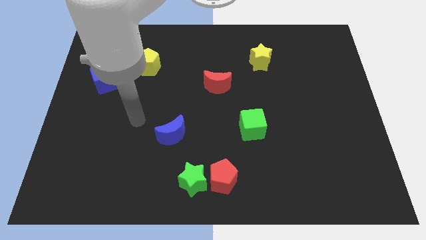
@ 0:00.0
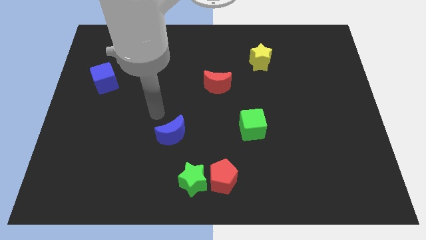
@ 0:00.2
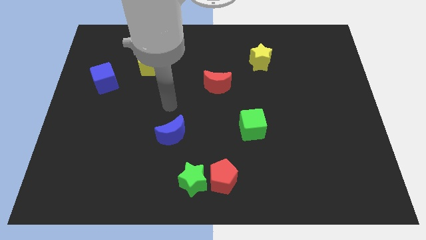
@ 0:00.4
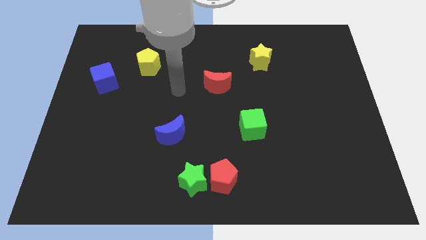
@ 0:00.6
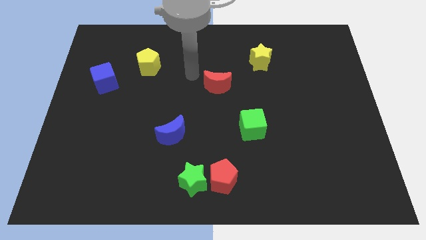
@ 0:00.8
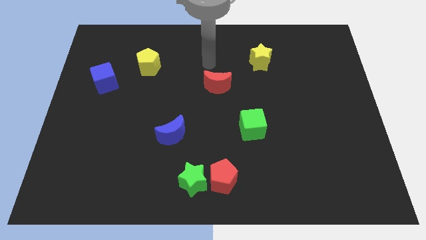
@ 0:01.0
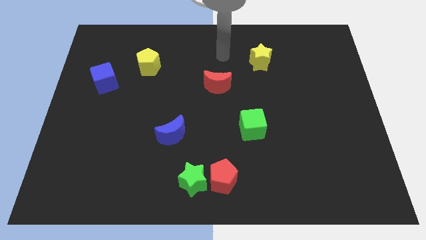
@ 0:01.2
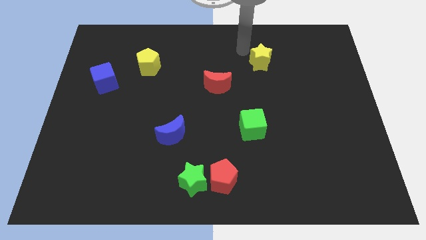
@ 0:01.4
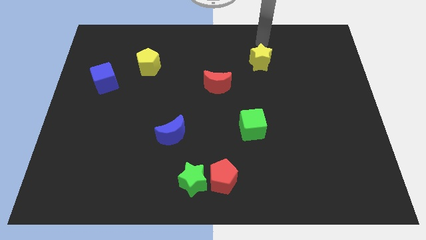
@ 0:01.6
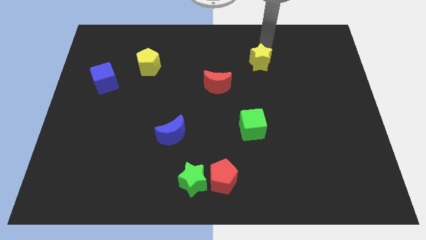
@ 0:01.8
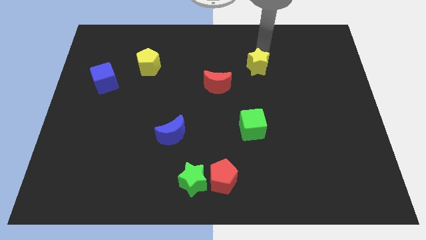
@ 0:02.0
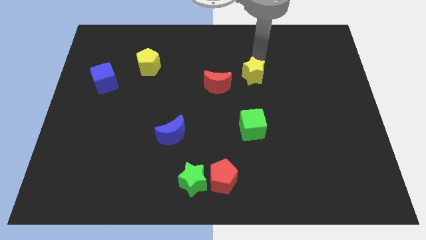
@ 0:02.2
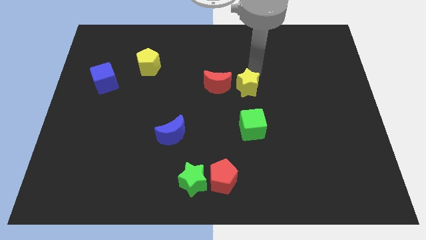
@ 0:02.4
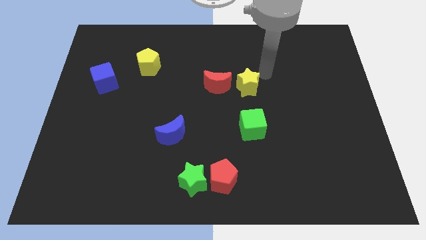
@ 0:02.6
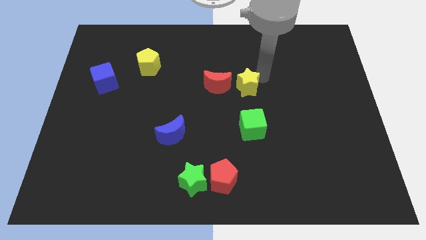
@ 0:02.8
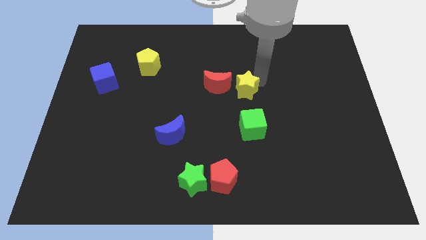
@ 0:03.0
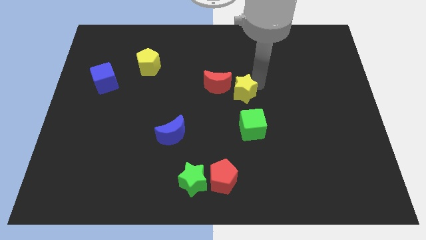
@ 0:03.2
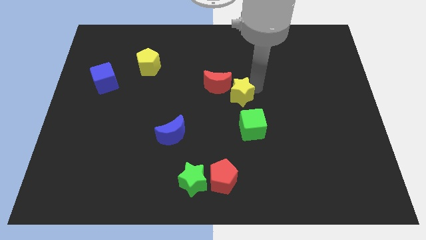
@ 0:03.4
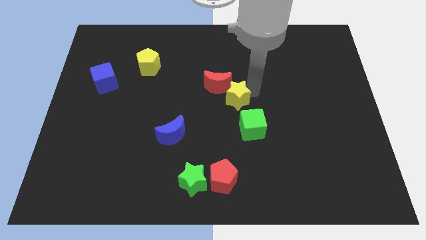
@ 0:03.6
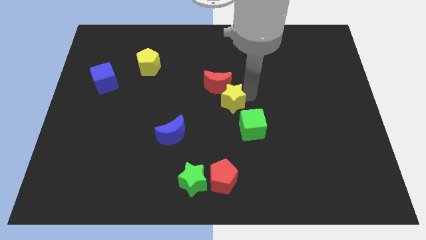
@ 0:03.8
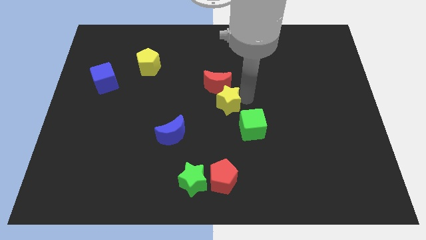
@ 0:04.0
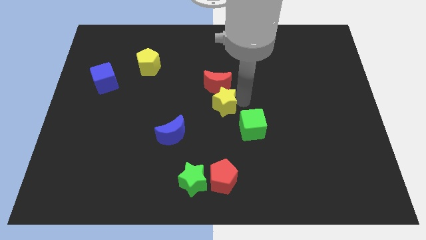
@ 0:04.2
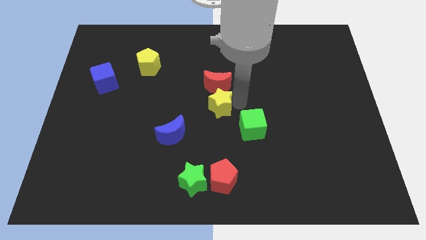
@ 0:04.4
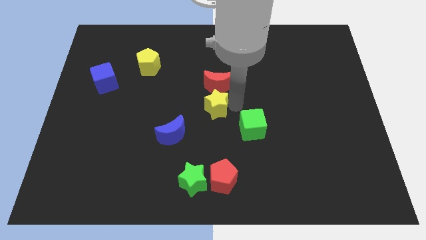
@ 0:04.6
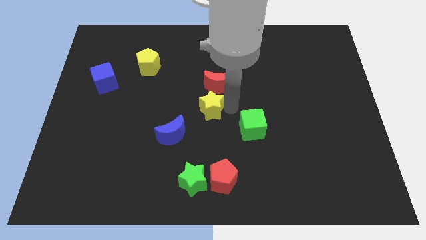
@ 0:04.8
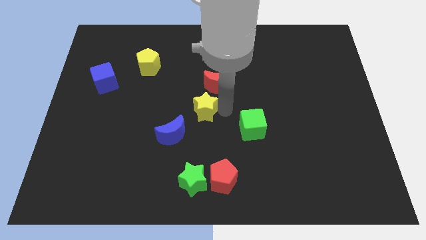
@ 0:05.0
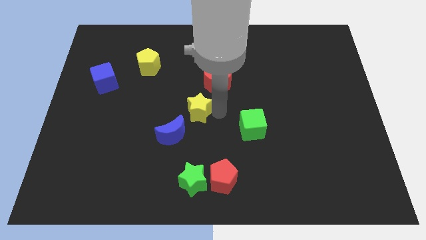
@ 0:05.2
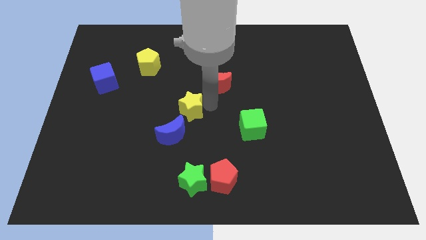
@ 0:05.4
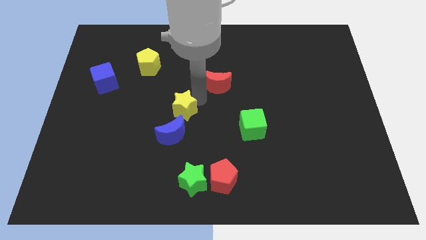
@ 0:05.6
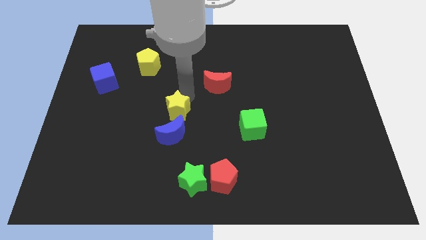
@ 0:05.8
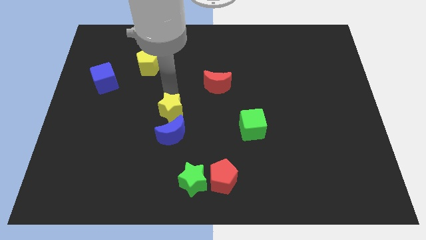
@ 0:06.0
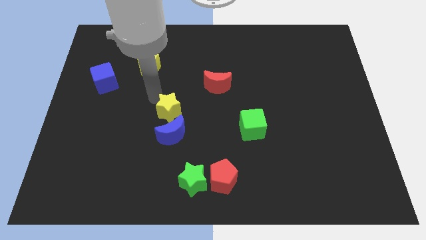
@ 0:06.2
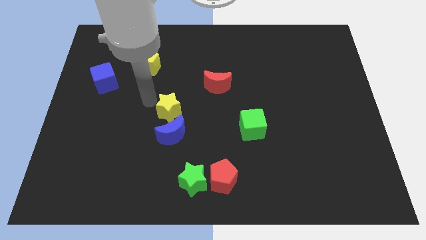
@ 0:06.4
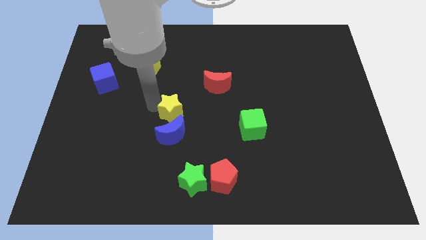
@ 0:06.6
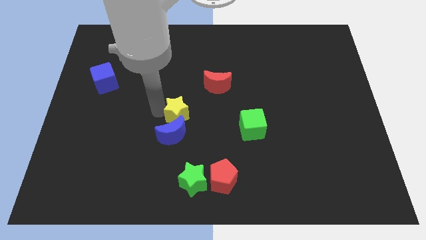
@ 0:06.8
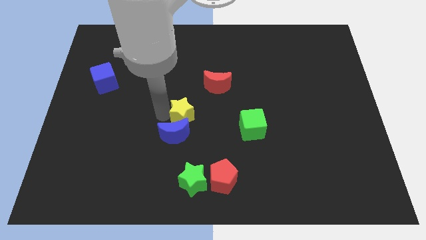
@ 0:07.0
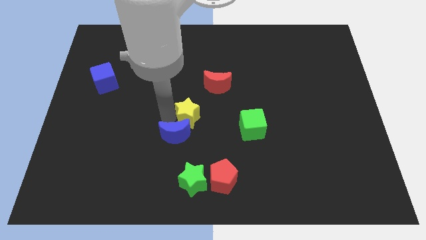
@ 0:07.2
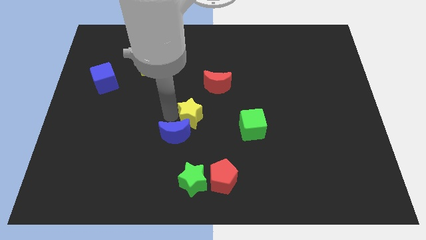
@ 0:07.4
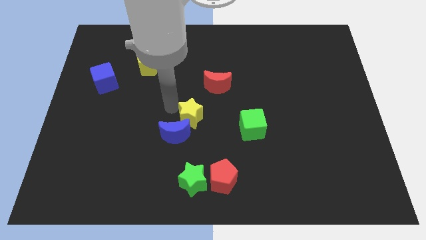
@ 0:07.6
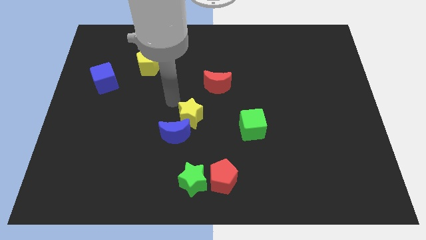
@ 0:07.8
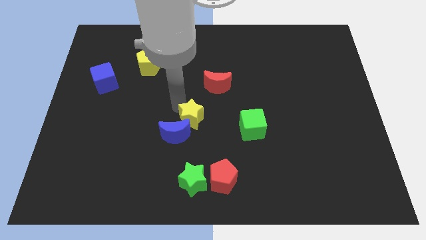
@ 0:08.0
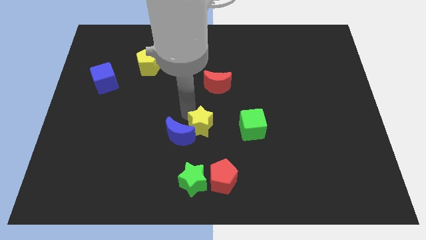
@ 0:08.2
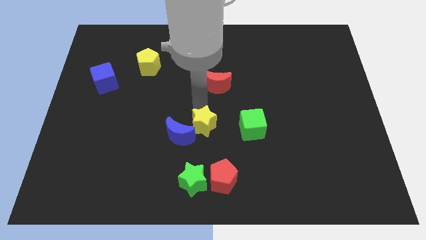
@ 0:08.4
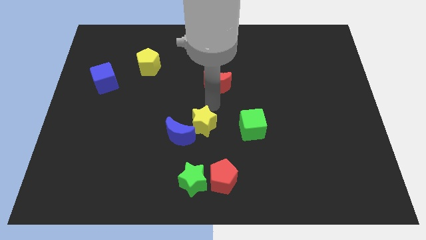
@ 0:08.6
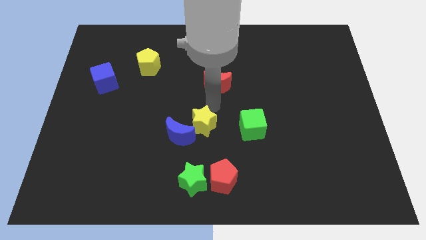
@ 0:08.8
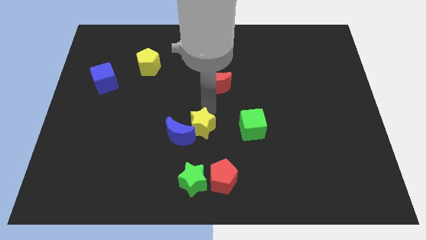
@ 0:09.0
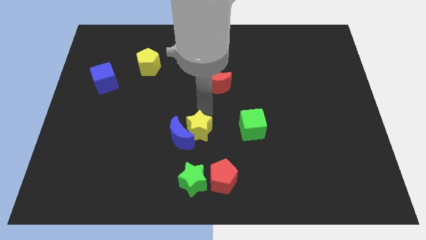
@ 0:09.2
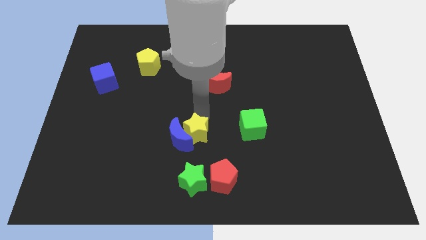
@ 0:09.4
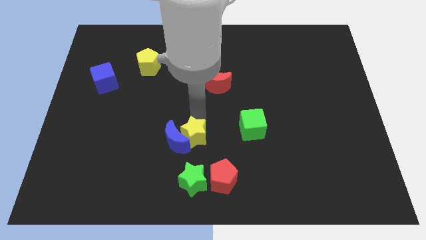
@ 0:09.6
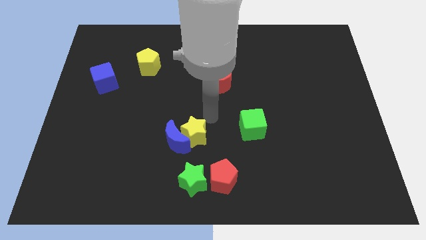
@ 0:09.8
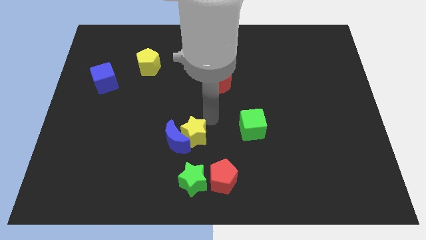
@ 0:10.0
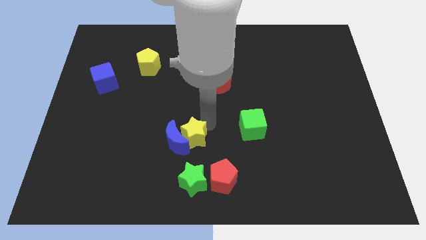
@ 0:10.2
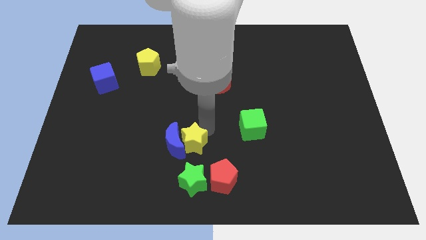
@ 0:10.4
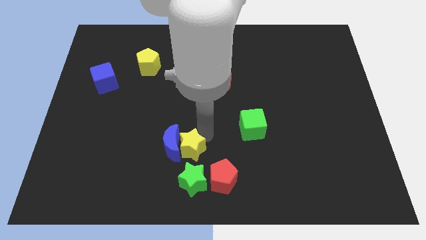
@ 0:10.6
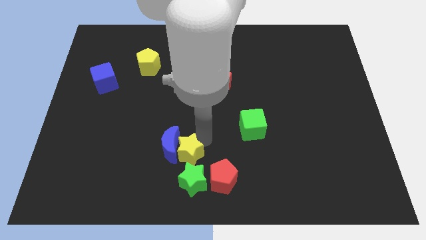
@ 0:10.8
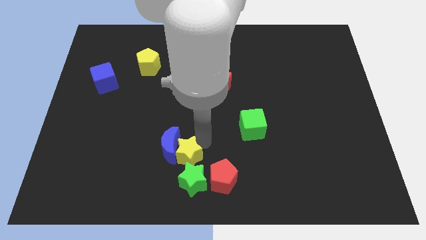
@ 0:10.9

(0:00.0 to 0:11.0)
move the yellow star to the bottom side of the blue moon

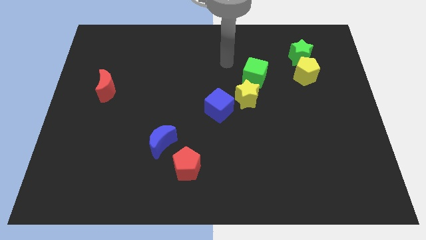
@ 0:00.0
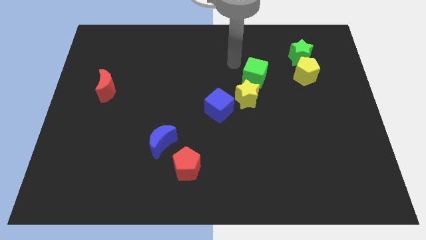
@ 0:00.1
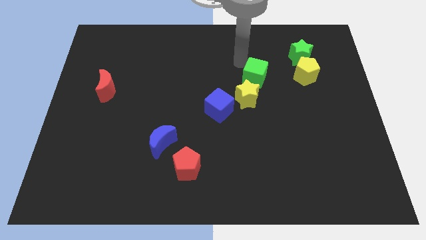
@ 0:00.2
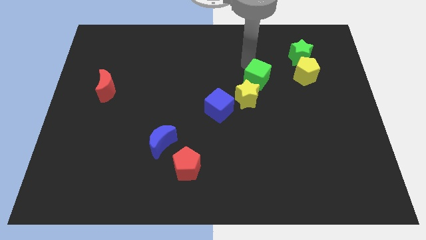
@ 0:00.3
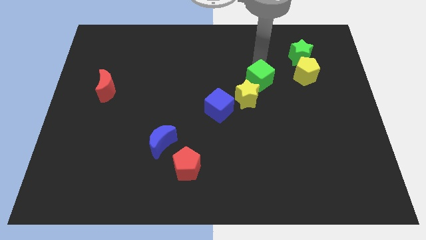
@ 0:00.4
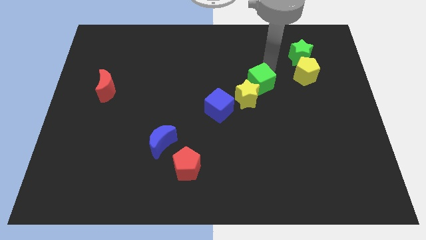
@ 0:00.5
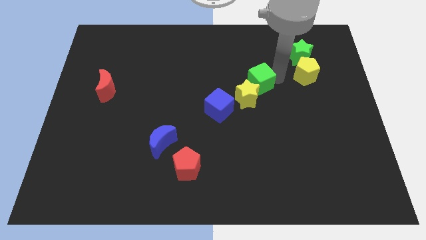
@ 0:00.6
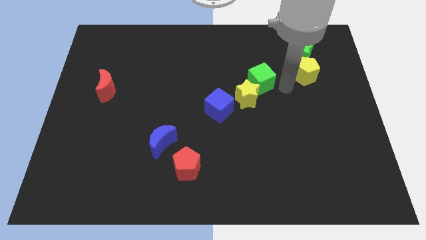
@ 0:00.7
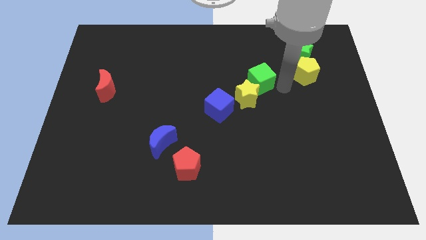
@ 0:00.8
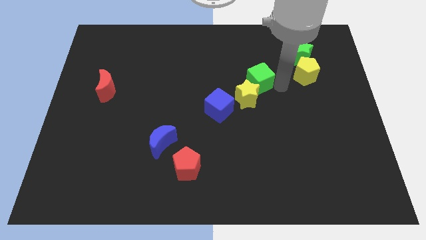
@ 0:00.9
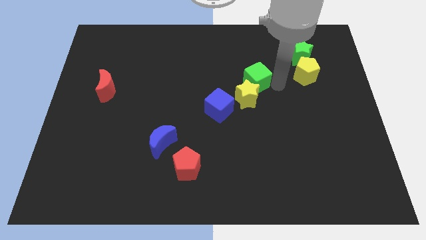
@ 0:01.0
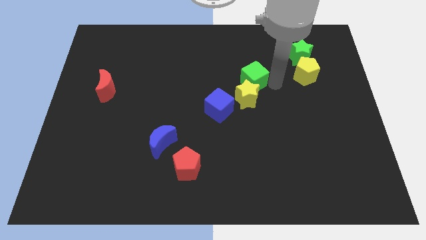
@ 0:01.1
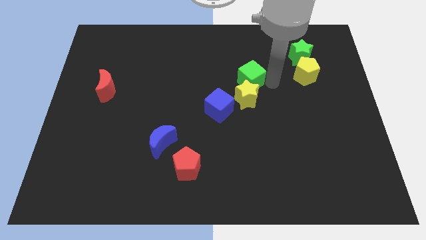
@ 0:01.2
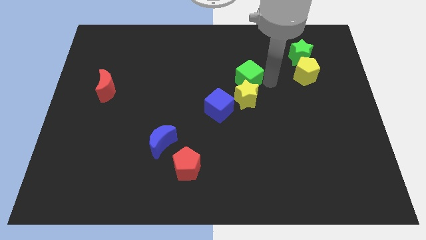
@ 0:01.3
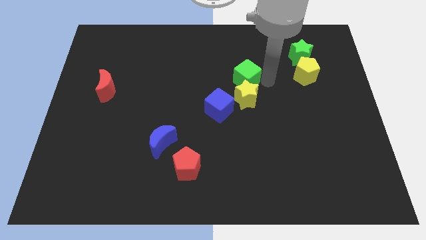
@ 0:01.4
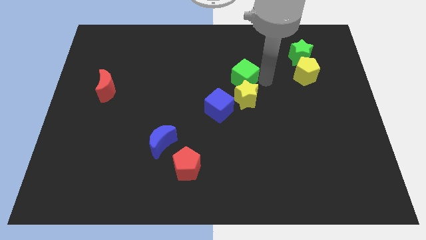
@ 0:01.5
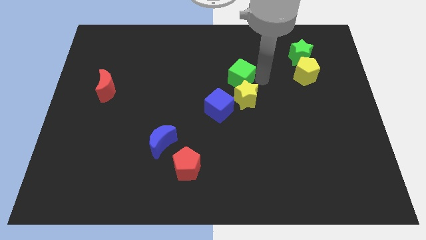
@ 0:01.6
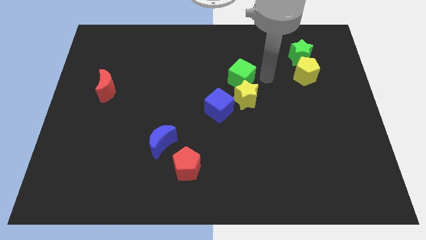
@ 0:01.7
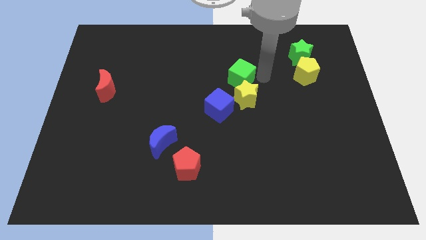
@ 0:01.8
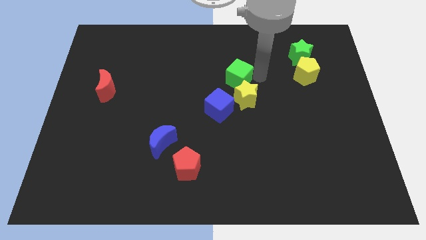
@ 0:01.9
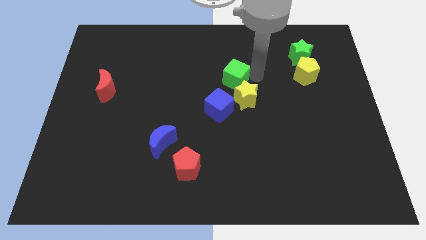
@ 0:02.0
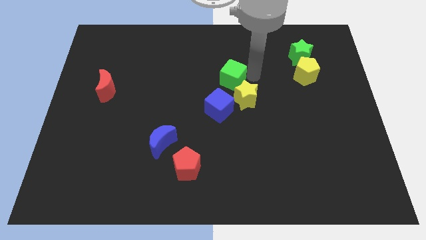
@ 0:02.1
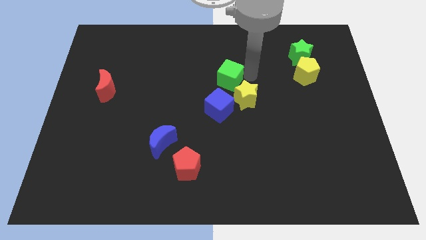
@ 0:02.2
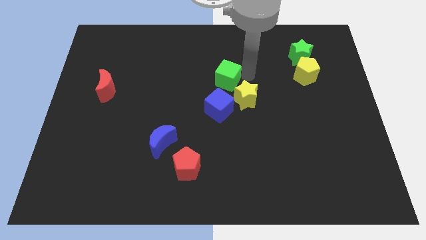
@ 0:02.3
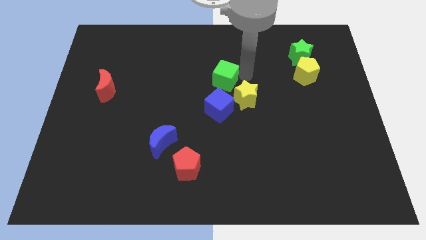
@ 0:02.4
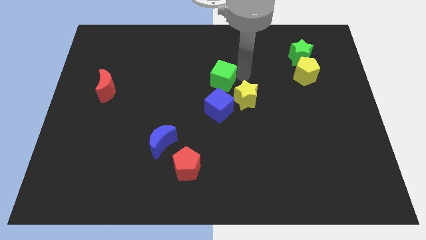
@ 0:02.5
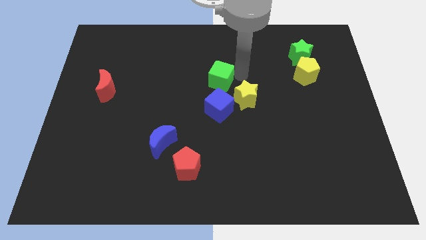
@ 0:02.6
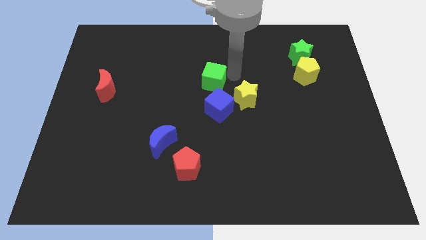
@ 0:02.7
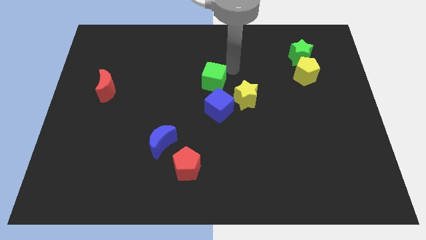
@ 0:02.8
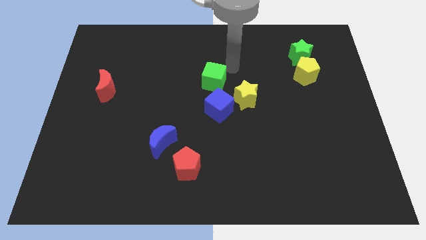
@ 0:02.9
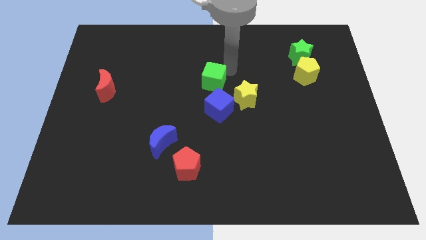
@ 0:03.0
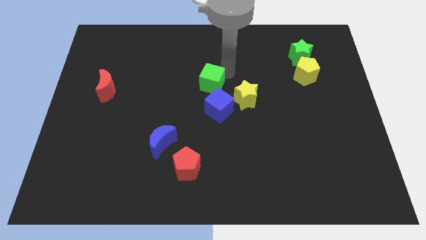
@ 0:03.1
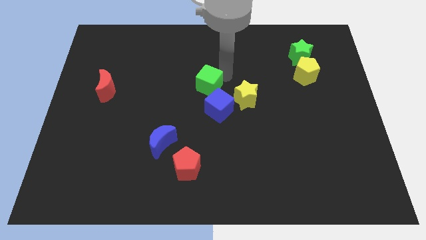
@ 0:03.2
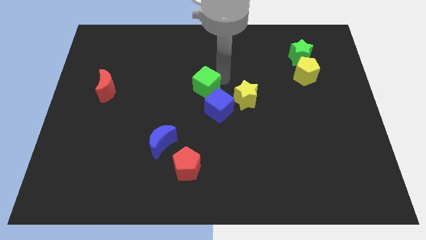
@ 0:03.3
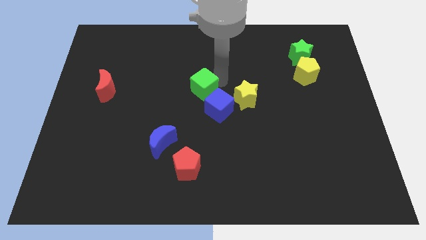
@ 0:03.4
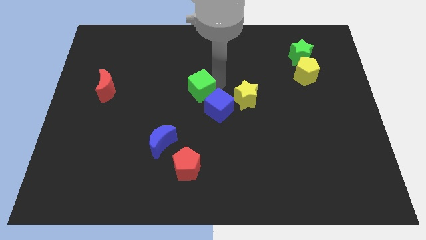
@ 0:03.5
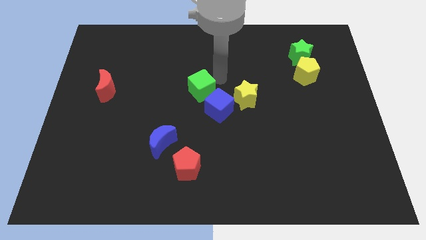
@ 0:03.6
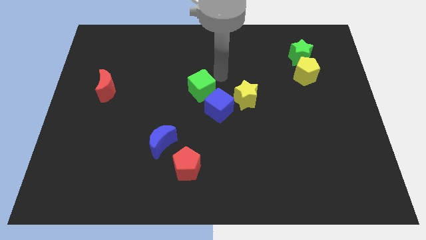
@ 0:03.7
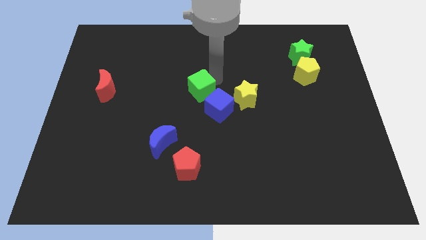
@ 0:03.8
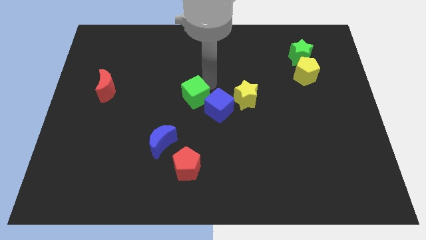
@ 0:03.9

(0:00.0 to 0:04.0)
push the green cube left of the blue cube
